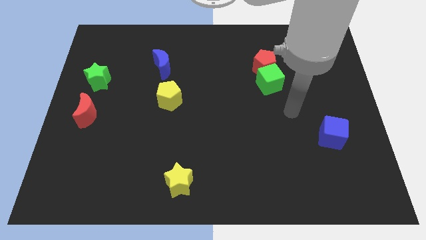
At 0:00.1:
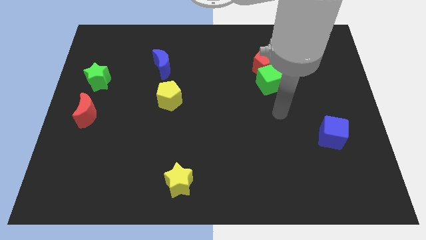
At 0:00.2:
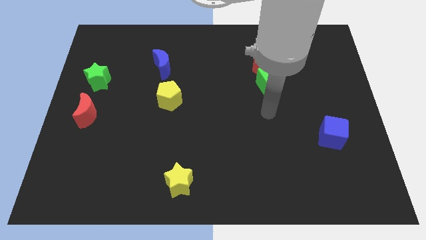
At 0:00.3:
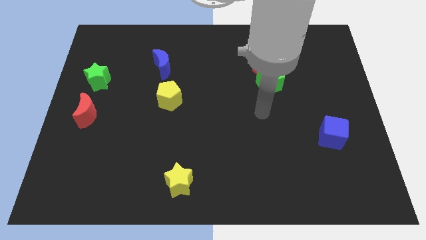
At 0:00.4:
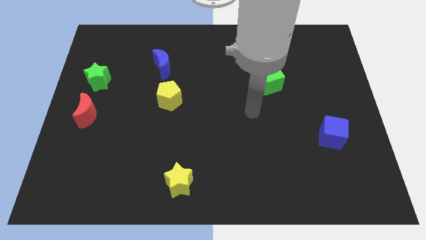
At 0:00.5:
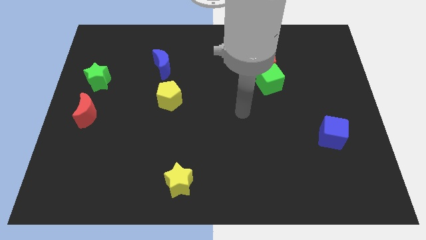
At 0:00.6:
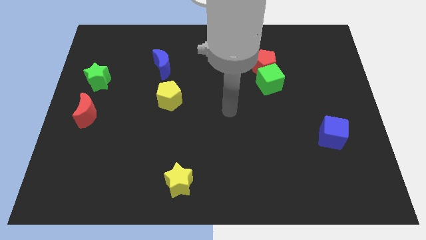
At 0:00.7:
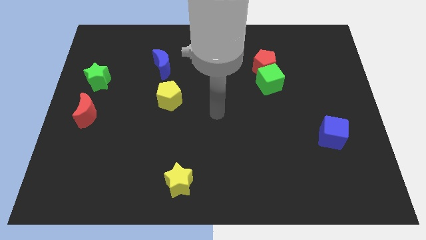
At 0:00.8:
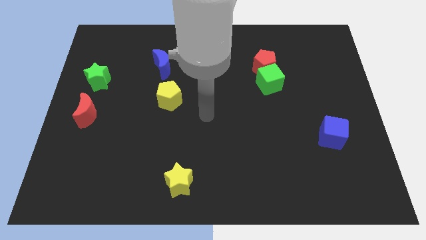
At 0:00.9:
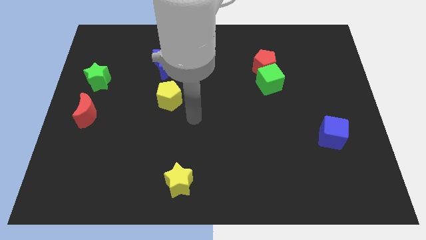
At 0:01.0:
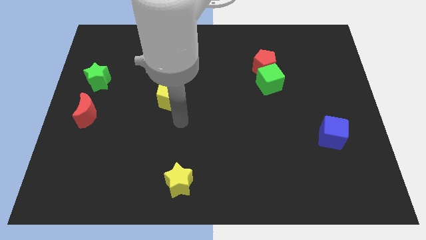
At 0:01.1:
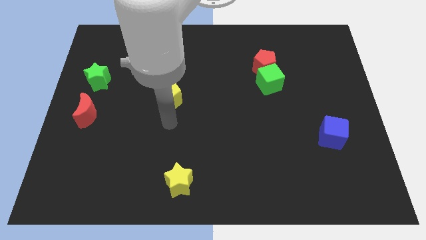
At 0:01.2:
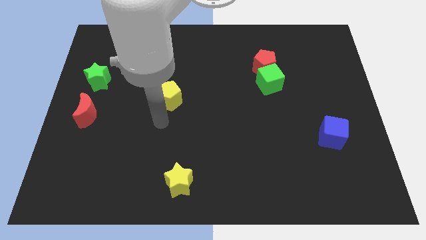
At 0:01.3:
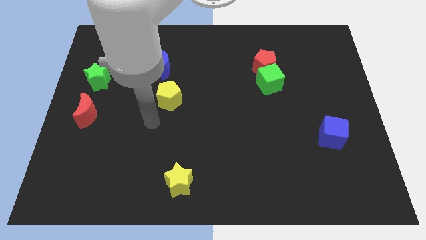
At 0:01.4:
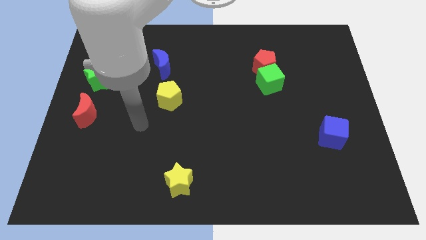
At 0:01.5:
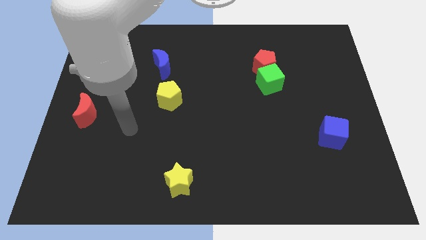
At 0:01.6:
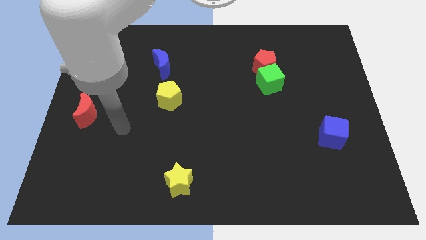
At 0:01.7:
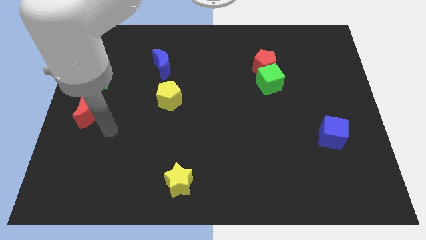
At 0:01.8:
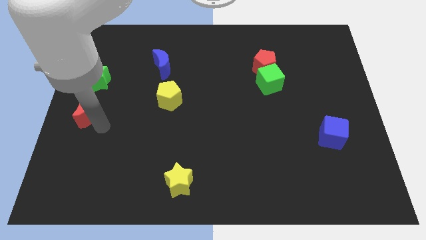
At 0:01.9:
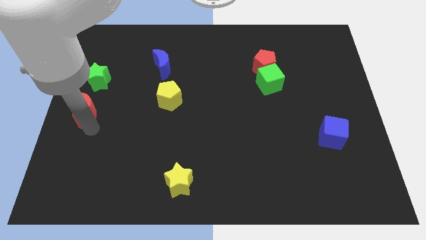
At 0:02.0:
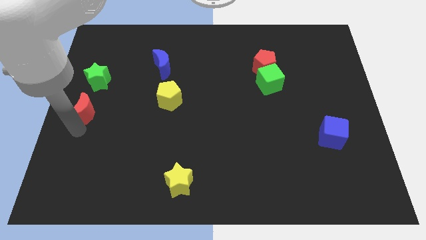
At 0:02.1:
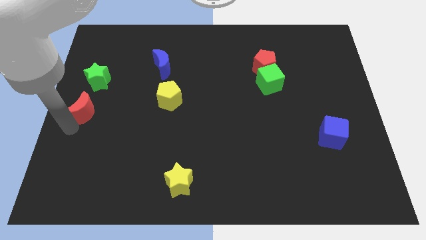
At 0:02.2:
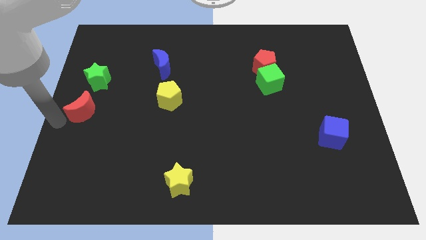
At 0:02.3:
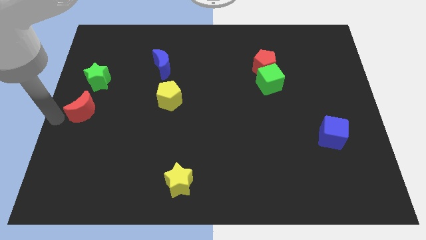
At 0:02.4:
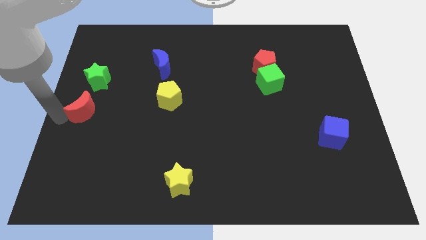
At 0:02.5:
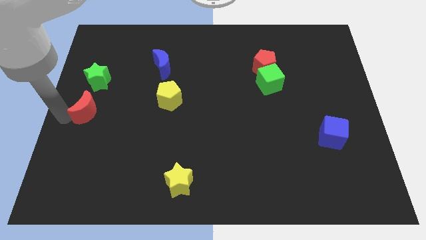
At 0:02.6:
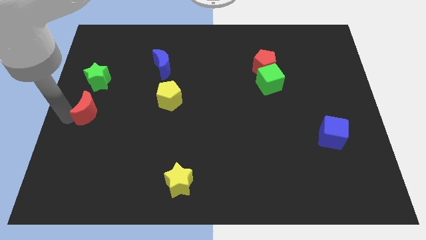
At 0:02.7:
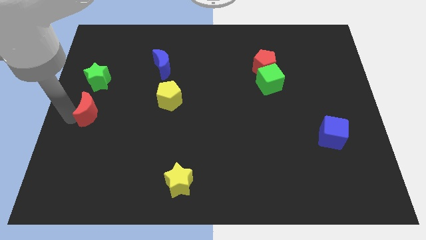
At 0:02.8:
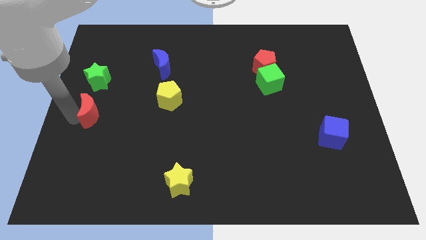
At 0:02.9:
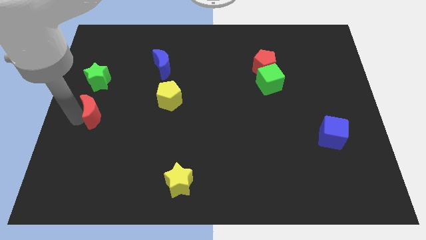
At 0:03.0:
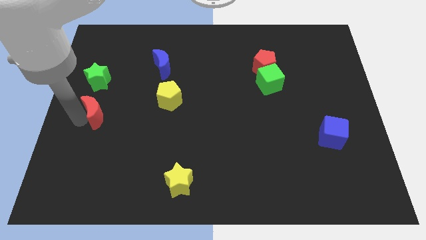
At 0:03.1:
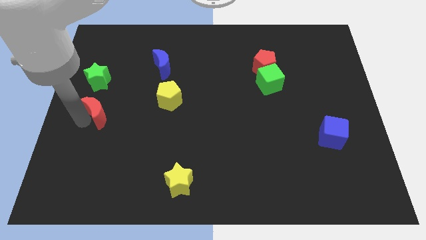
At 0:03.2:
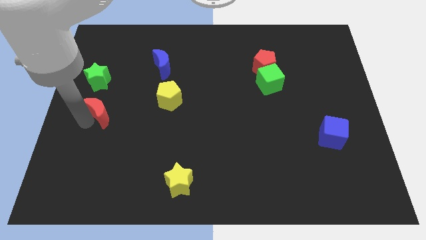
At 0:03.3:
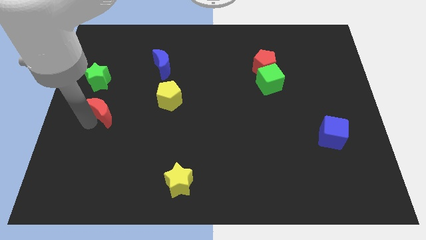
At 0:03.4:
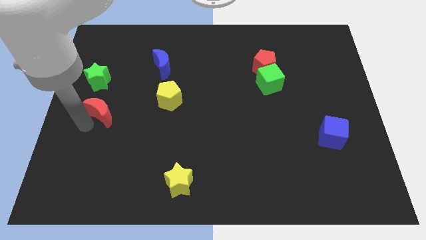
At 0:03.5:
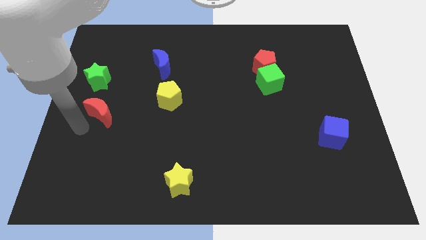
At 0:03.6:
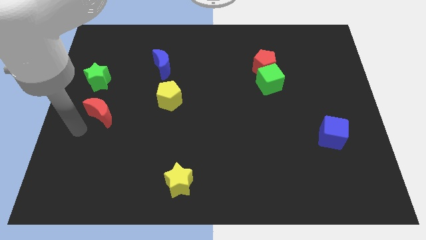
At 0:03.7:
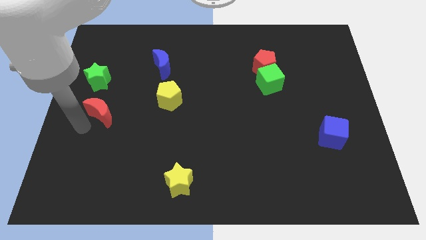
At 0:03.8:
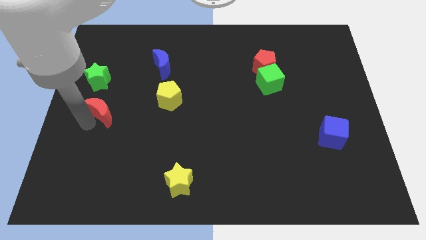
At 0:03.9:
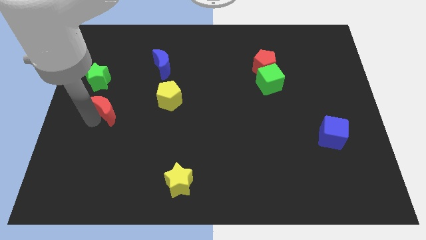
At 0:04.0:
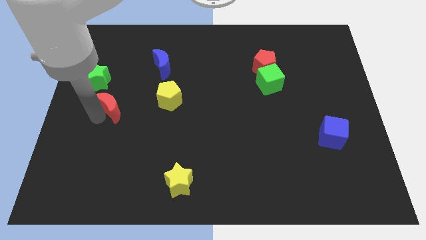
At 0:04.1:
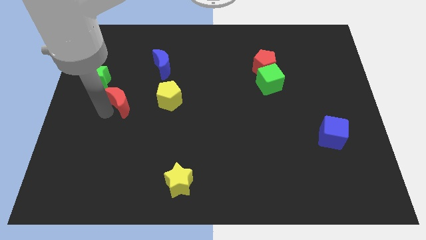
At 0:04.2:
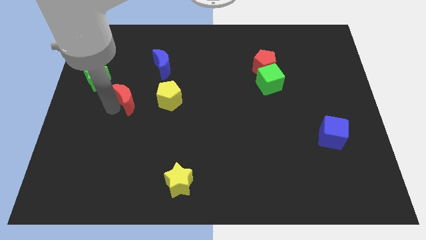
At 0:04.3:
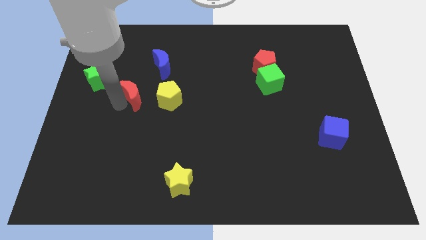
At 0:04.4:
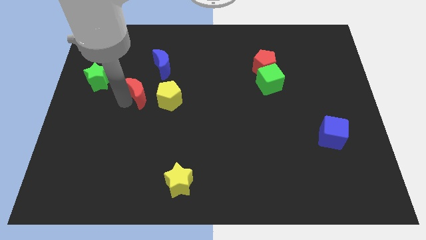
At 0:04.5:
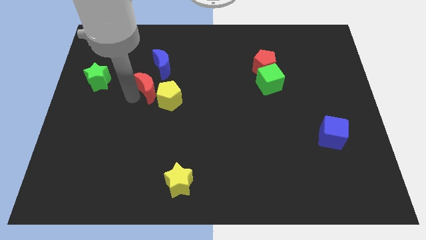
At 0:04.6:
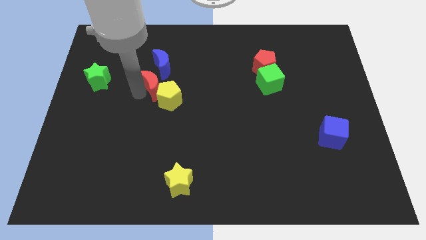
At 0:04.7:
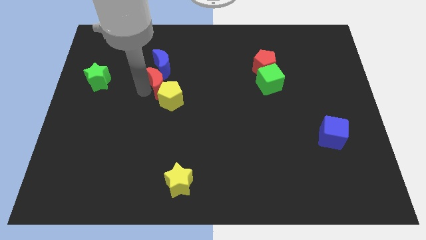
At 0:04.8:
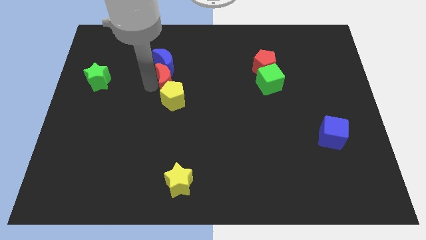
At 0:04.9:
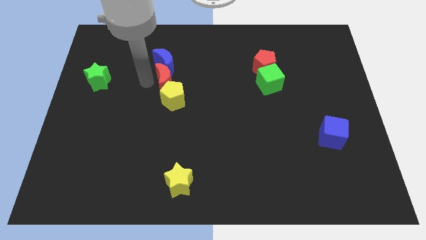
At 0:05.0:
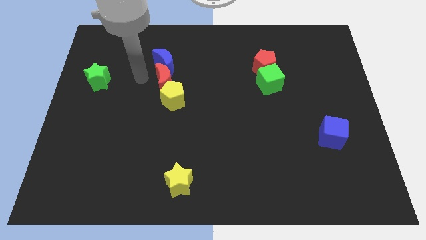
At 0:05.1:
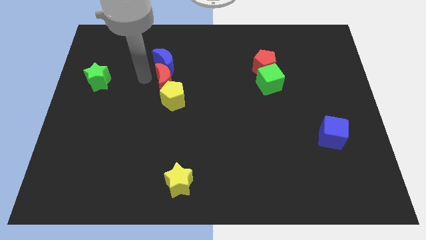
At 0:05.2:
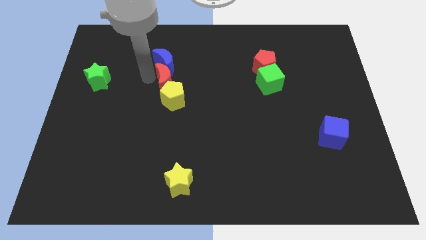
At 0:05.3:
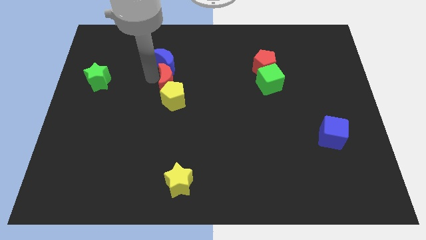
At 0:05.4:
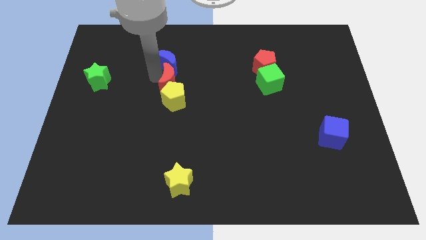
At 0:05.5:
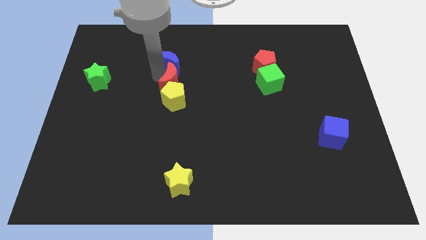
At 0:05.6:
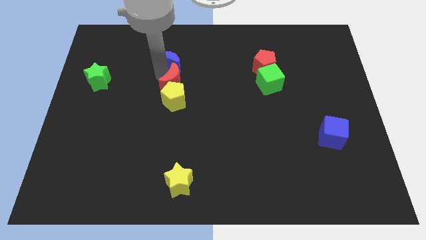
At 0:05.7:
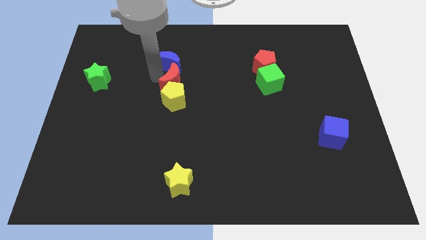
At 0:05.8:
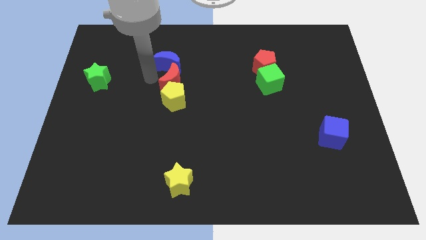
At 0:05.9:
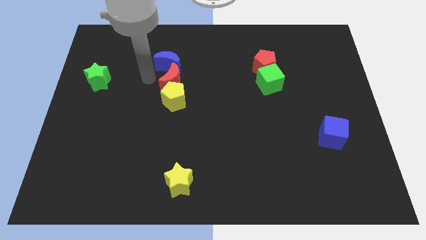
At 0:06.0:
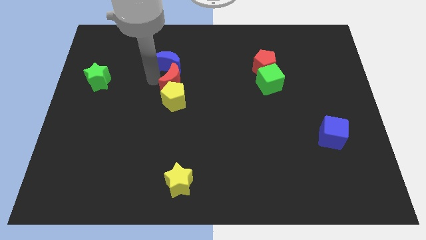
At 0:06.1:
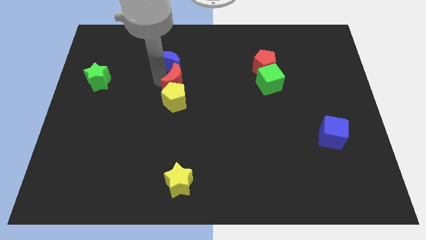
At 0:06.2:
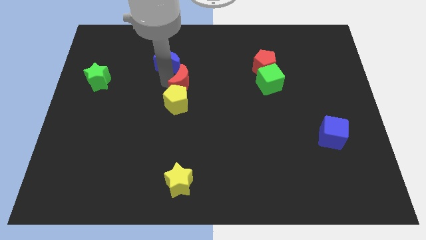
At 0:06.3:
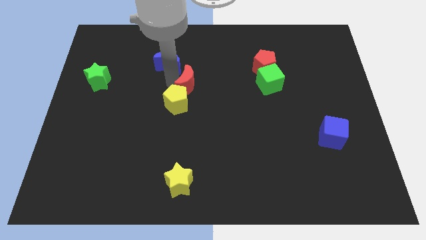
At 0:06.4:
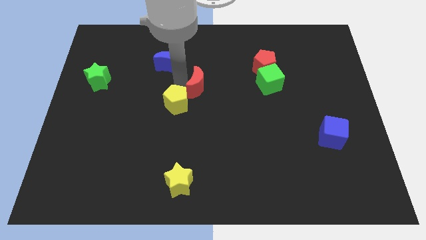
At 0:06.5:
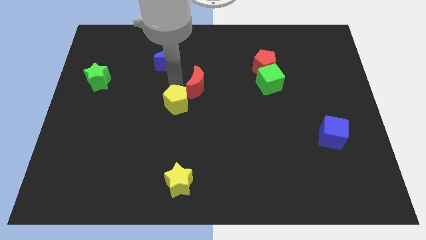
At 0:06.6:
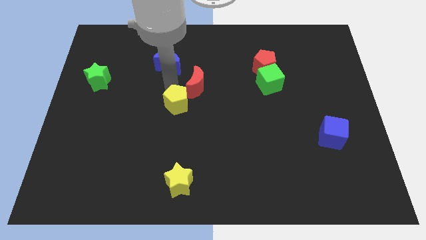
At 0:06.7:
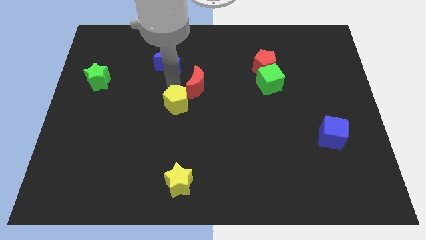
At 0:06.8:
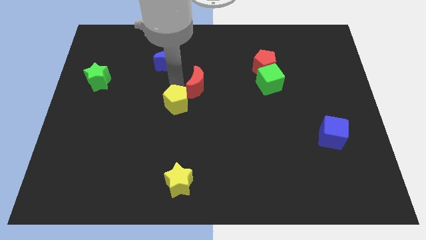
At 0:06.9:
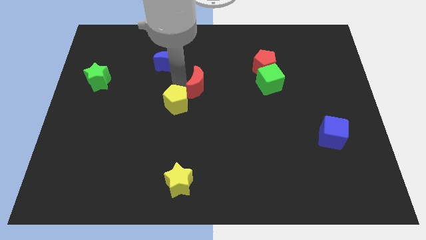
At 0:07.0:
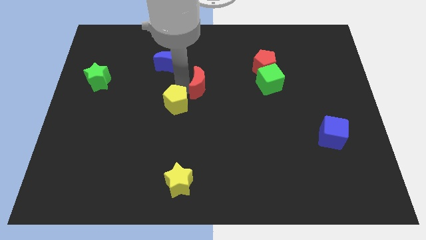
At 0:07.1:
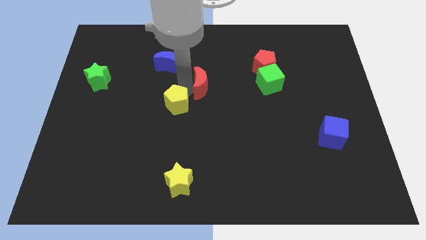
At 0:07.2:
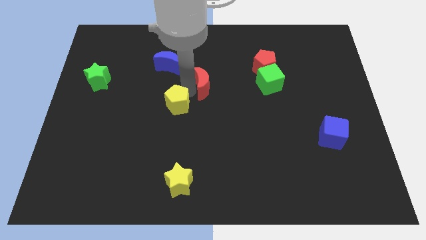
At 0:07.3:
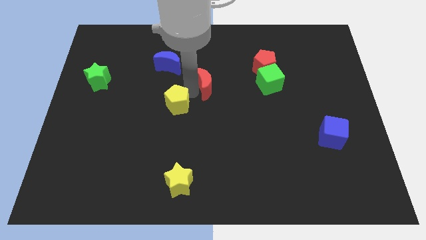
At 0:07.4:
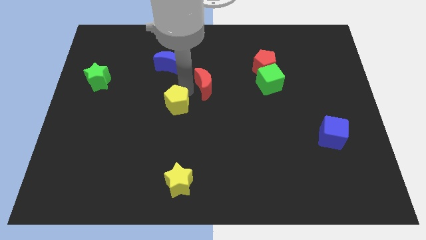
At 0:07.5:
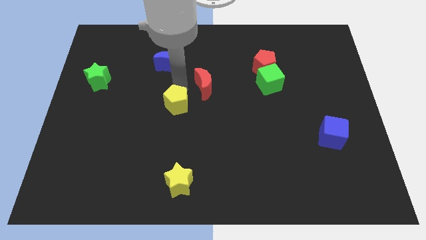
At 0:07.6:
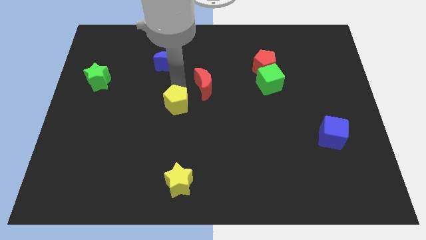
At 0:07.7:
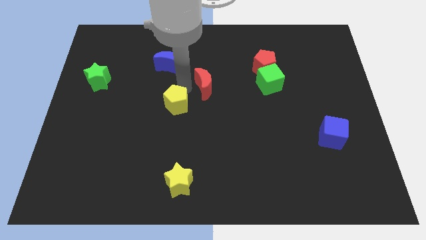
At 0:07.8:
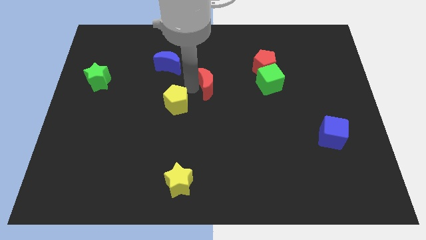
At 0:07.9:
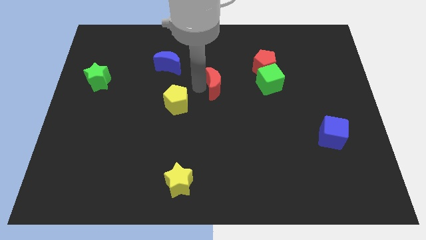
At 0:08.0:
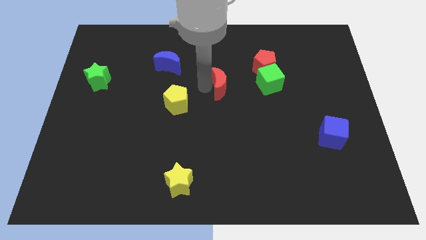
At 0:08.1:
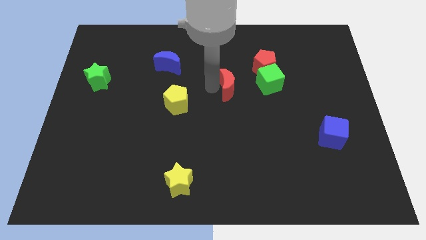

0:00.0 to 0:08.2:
put the red moon to the bottom left side of the red pentagon

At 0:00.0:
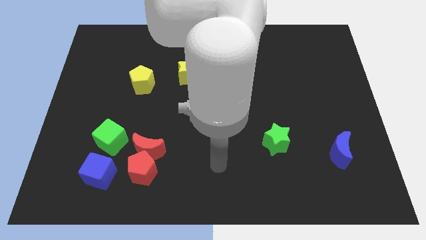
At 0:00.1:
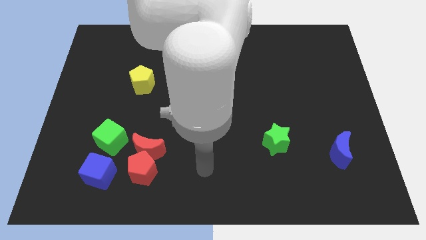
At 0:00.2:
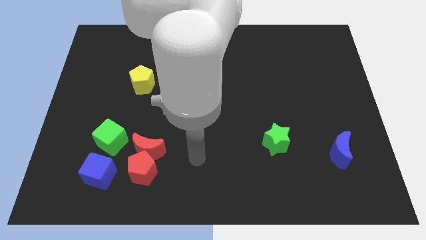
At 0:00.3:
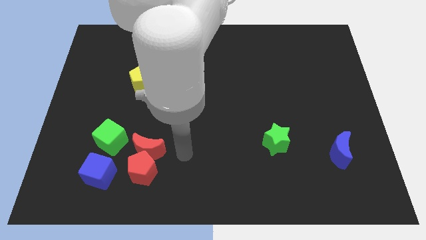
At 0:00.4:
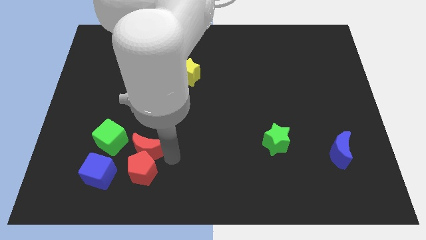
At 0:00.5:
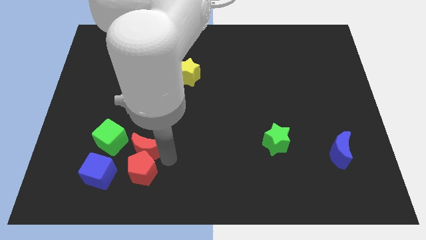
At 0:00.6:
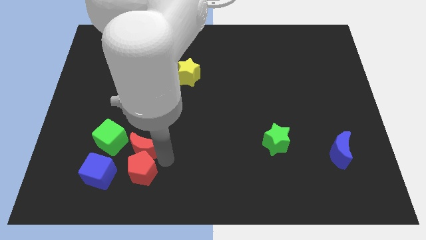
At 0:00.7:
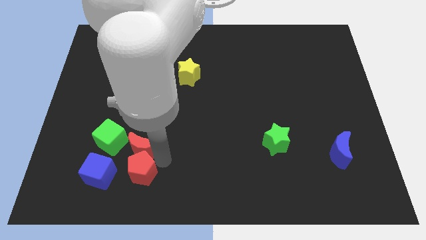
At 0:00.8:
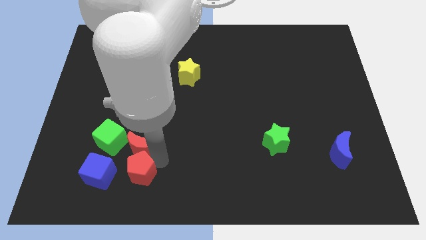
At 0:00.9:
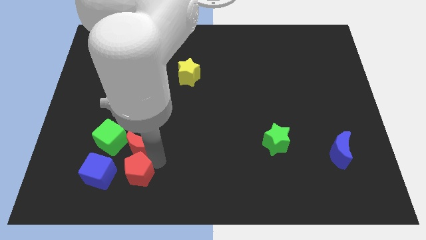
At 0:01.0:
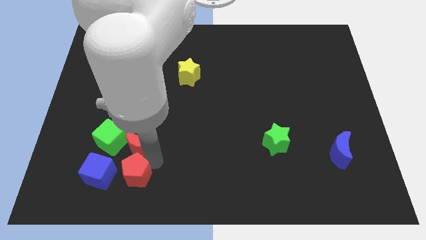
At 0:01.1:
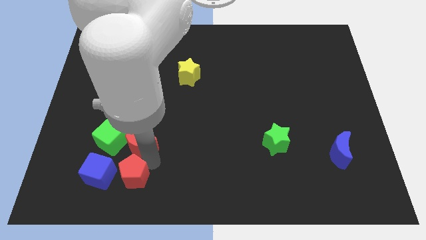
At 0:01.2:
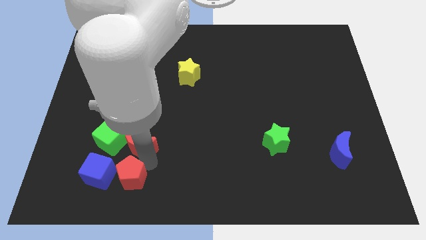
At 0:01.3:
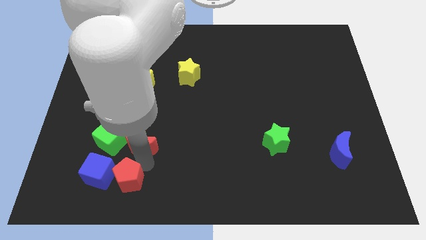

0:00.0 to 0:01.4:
move the red pentagon to the bottom side of the green cube
